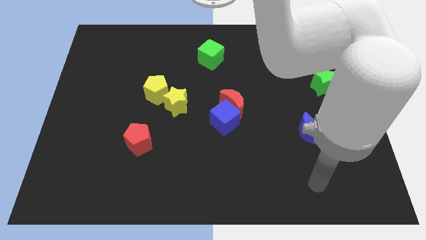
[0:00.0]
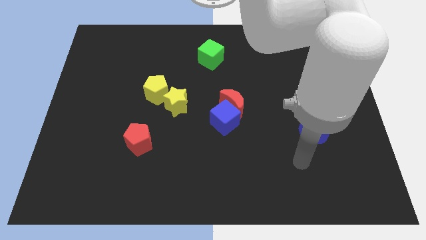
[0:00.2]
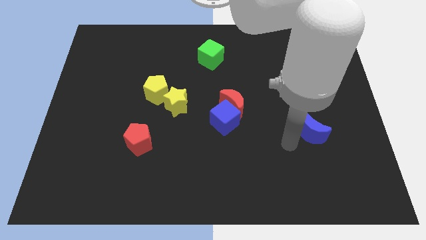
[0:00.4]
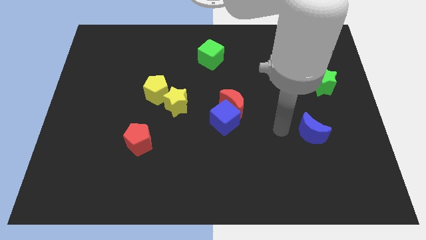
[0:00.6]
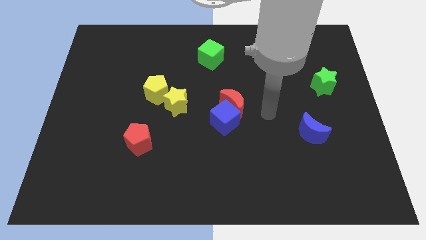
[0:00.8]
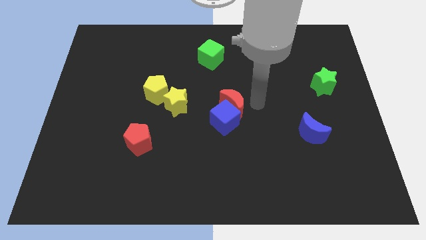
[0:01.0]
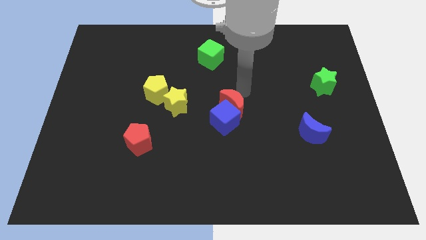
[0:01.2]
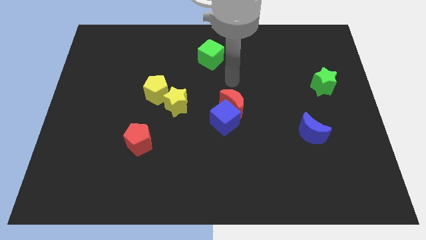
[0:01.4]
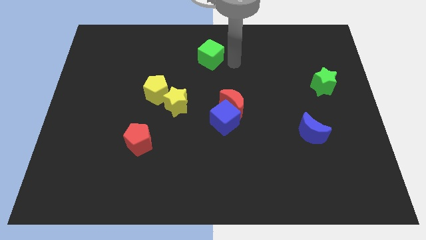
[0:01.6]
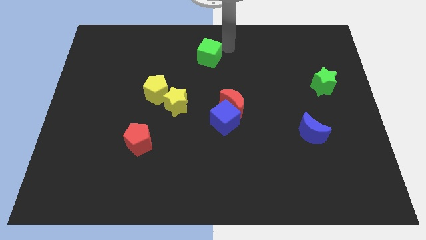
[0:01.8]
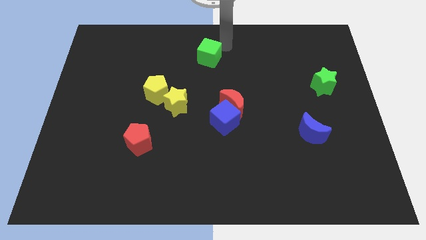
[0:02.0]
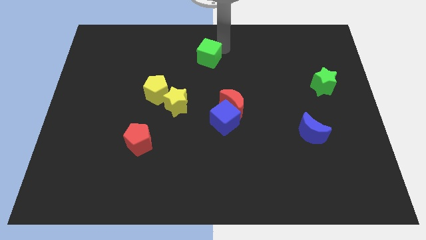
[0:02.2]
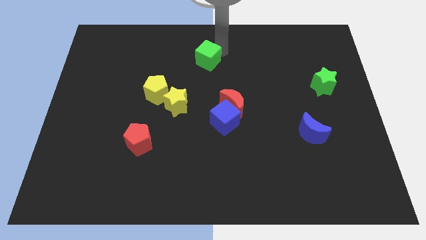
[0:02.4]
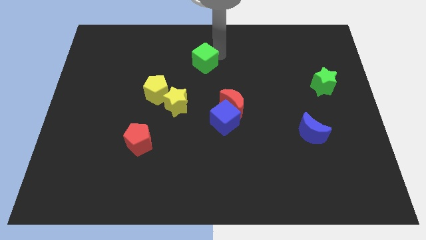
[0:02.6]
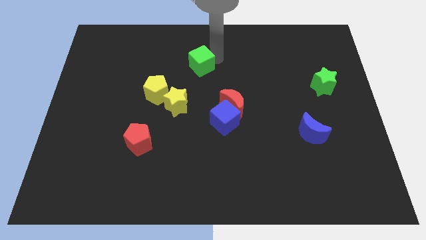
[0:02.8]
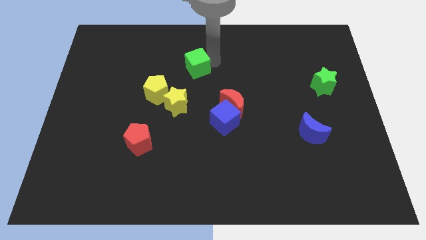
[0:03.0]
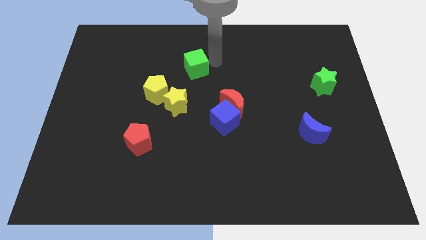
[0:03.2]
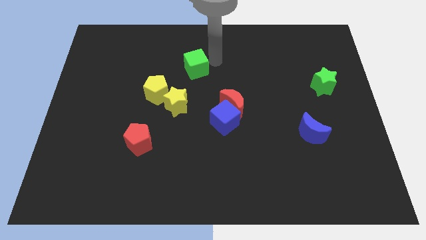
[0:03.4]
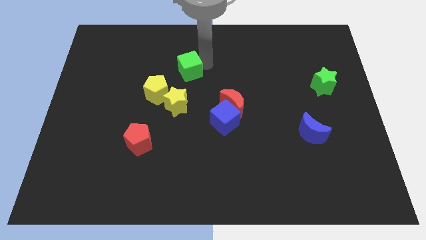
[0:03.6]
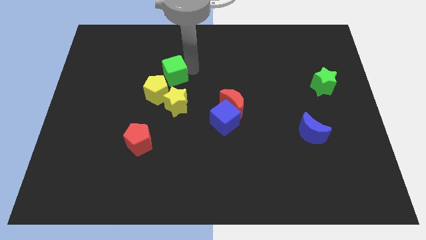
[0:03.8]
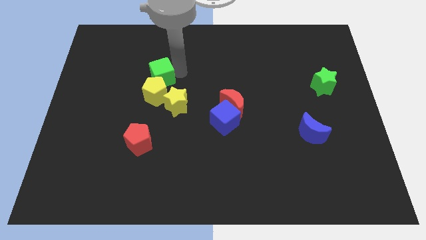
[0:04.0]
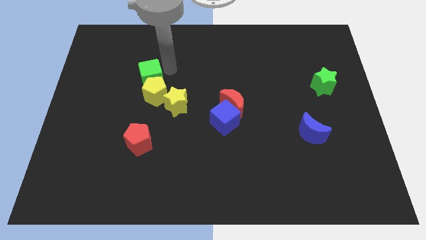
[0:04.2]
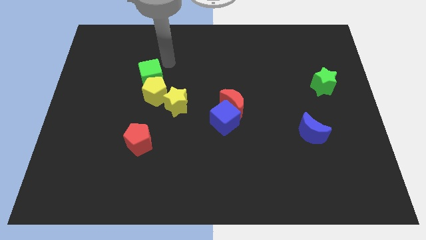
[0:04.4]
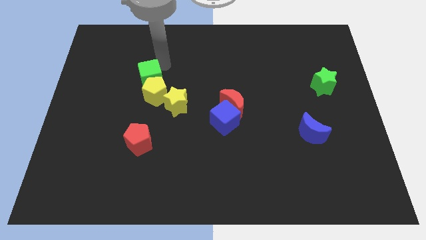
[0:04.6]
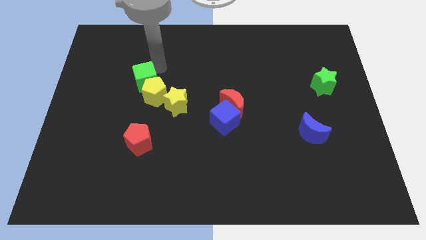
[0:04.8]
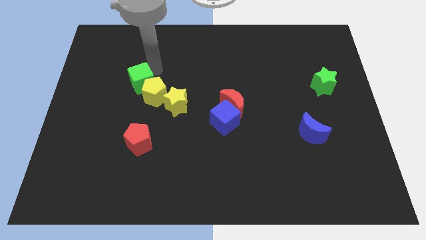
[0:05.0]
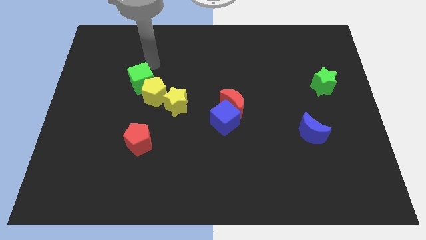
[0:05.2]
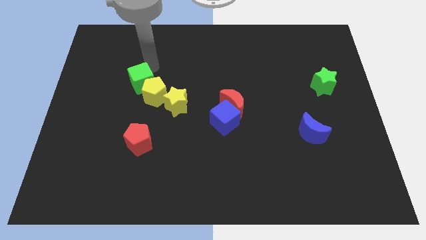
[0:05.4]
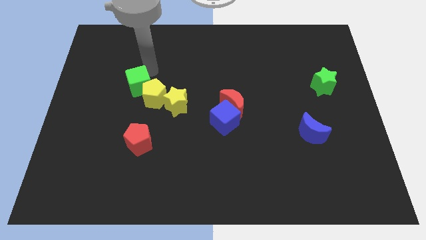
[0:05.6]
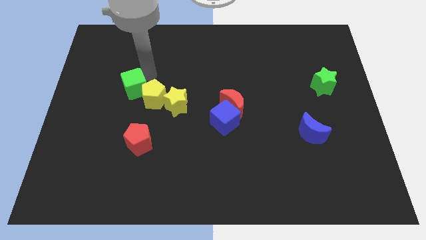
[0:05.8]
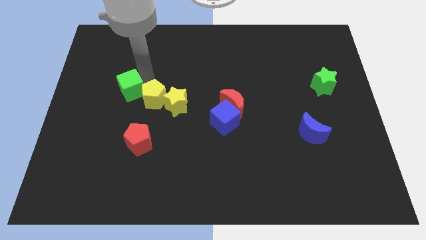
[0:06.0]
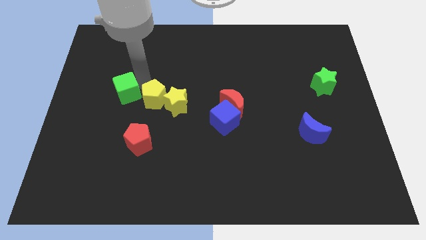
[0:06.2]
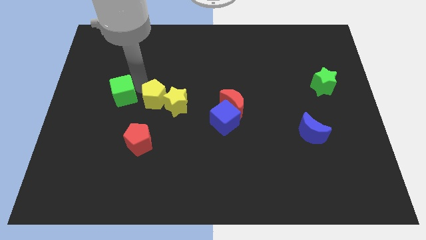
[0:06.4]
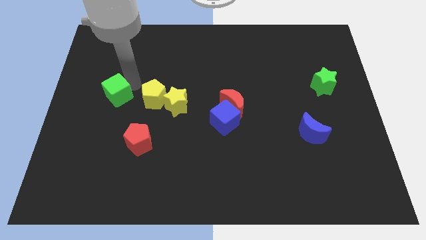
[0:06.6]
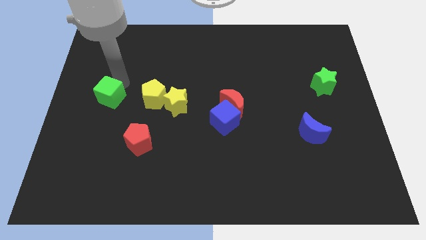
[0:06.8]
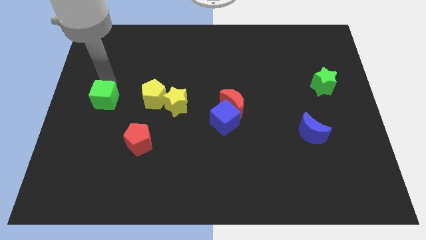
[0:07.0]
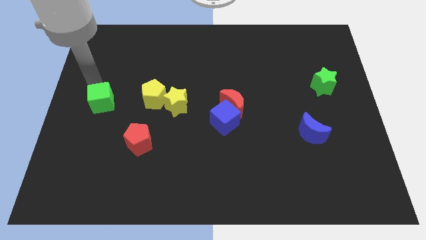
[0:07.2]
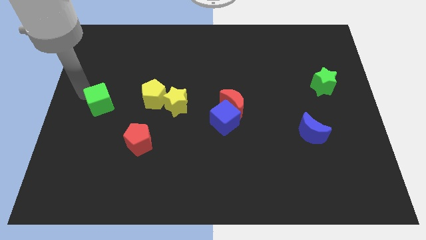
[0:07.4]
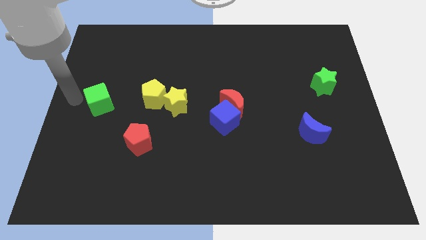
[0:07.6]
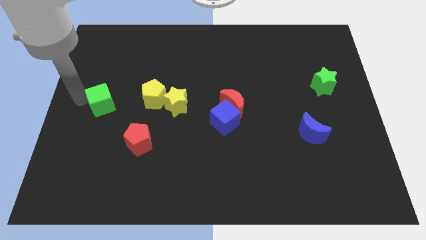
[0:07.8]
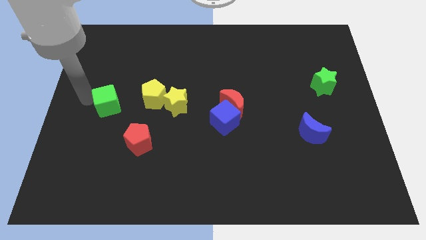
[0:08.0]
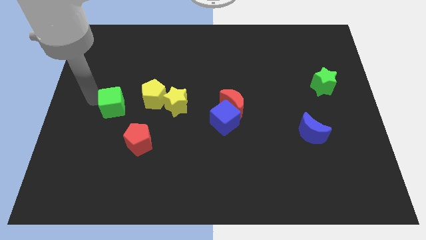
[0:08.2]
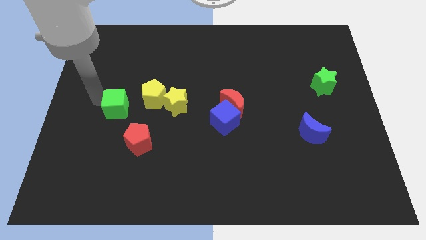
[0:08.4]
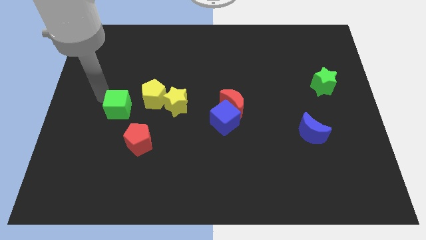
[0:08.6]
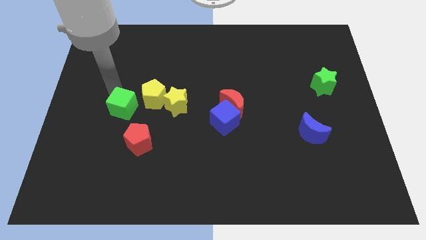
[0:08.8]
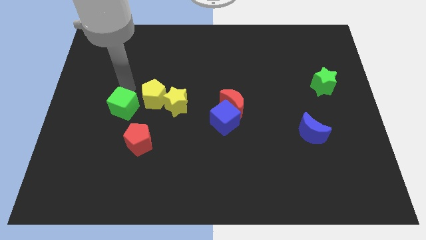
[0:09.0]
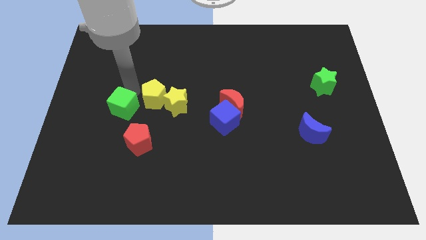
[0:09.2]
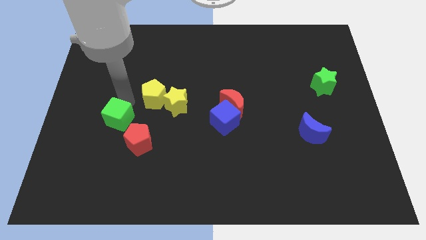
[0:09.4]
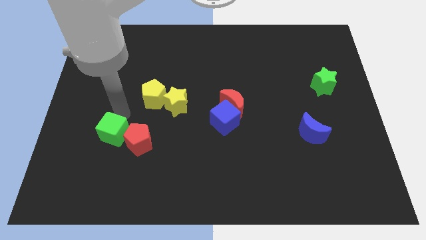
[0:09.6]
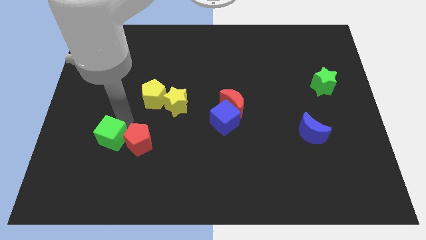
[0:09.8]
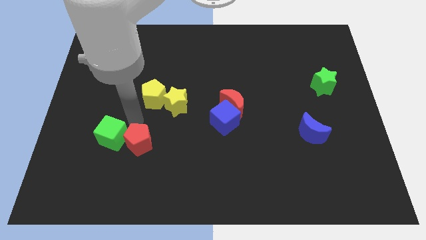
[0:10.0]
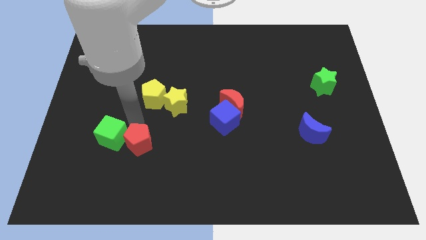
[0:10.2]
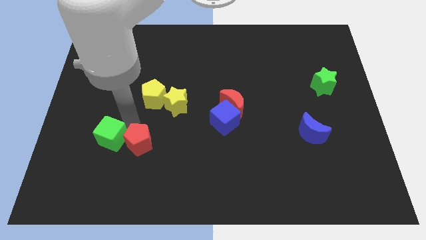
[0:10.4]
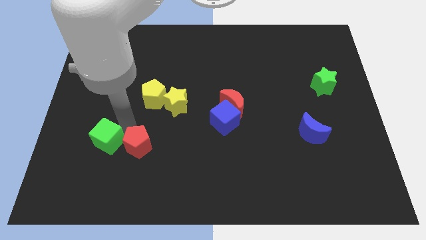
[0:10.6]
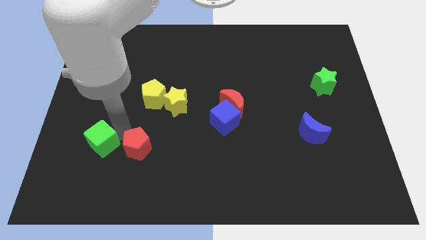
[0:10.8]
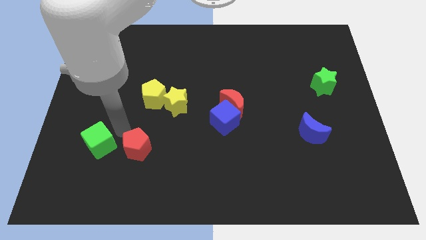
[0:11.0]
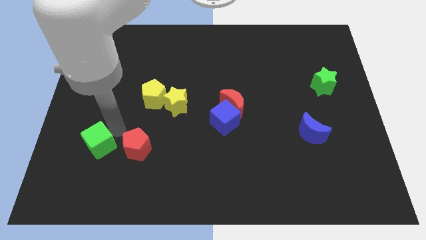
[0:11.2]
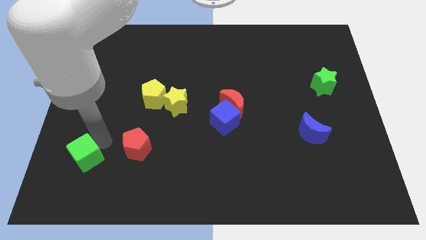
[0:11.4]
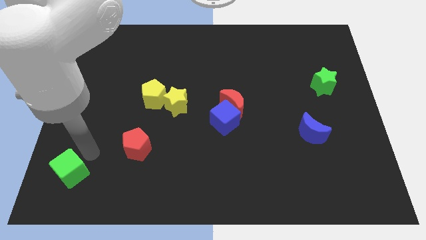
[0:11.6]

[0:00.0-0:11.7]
move the green cube to the lower left corner

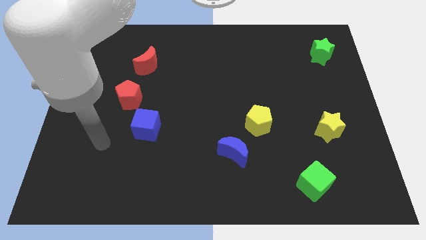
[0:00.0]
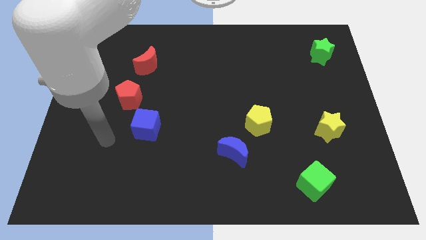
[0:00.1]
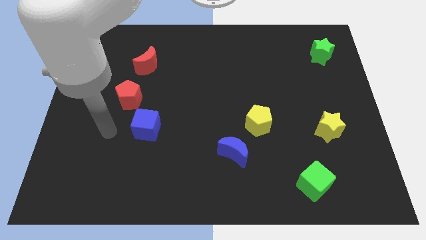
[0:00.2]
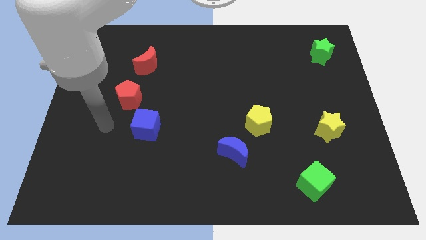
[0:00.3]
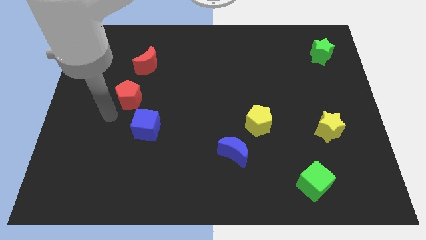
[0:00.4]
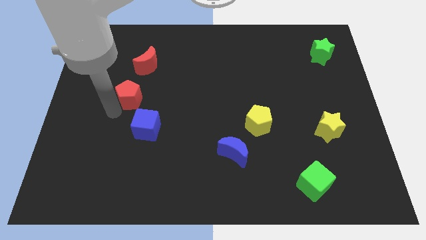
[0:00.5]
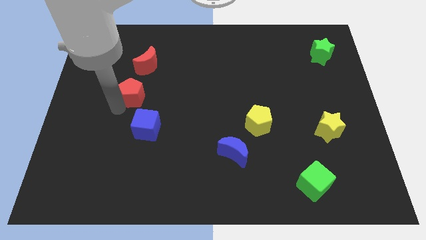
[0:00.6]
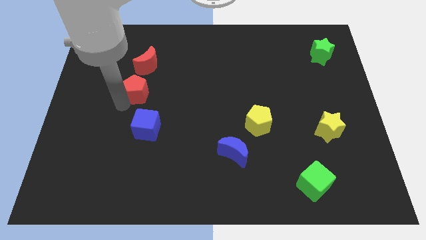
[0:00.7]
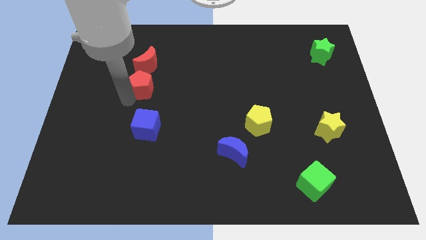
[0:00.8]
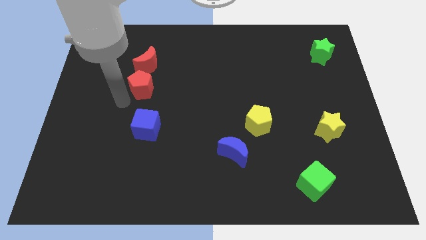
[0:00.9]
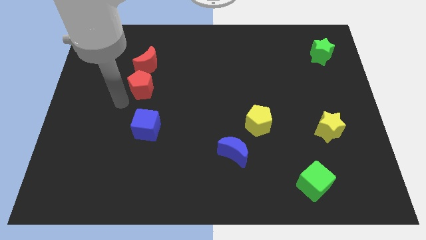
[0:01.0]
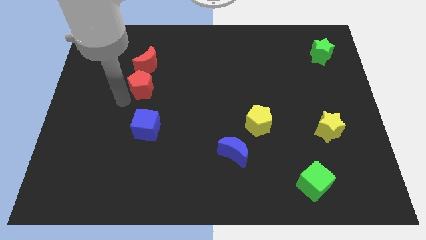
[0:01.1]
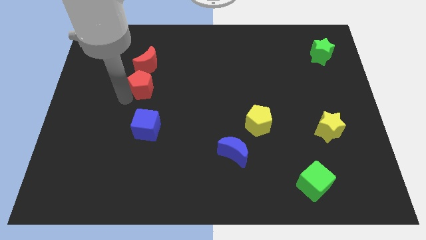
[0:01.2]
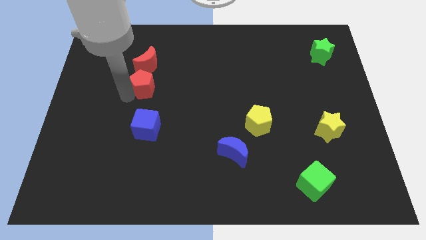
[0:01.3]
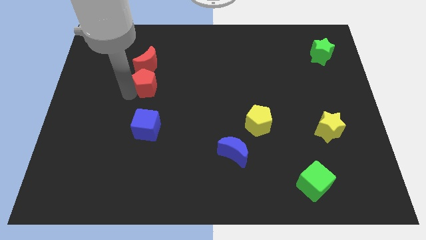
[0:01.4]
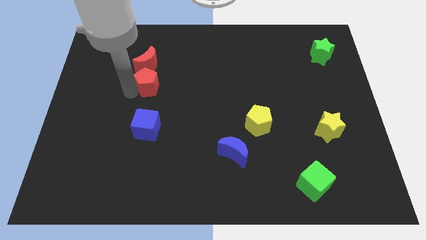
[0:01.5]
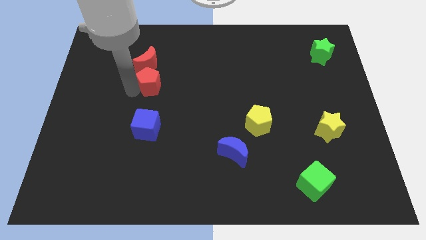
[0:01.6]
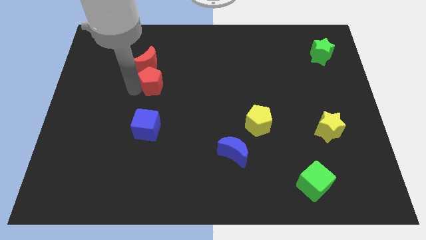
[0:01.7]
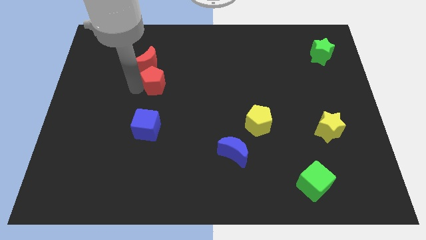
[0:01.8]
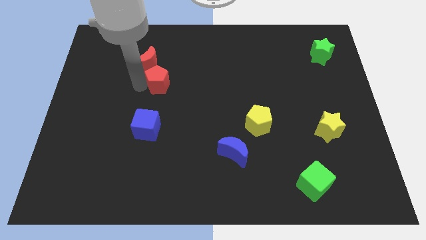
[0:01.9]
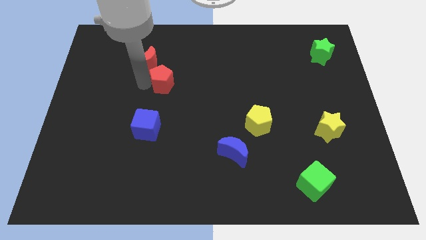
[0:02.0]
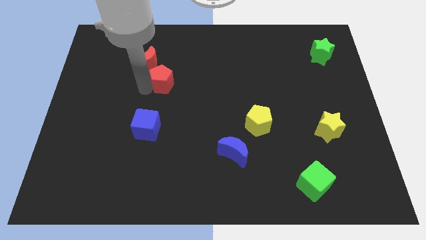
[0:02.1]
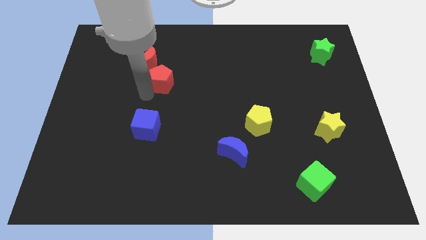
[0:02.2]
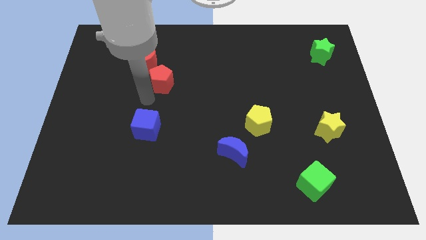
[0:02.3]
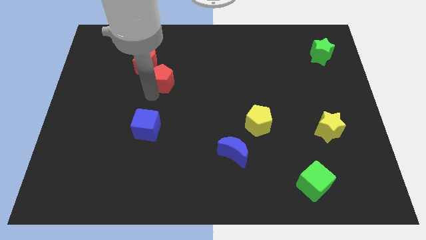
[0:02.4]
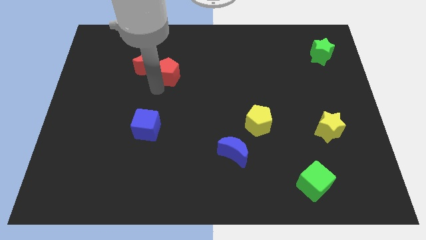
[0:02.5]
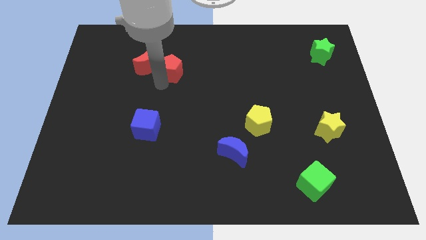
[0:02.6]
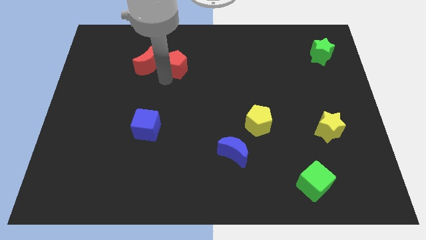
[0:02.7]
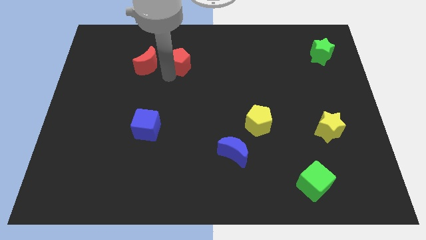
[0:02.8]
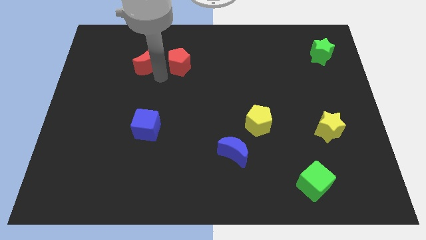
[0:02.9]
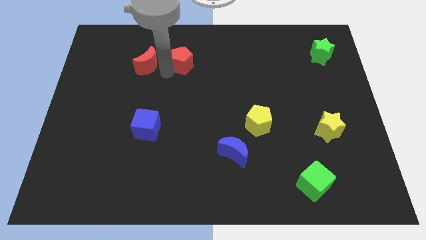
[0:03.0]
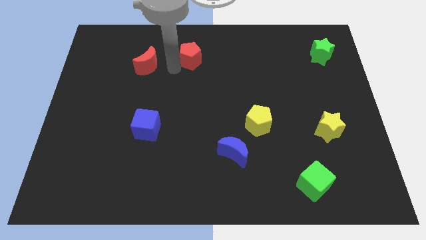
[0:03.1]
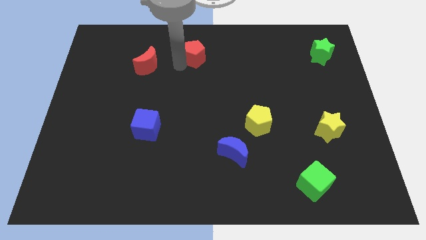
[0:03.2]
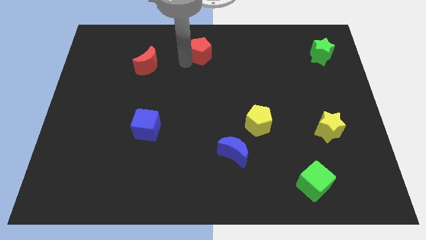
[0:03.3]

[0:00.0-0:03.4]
push the red pentagon to the towards your base
